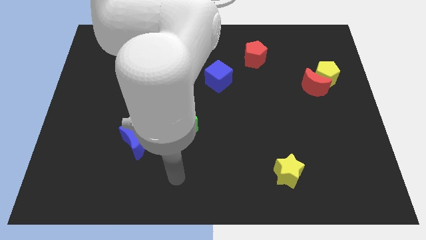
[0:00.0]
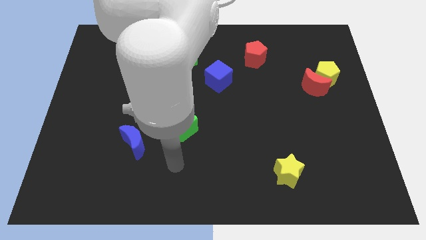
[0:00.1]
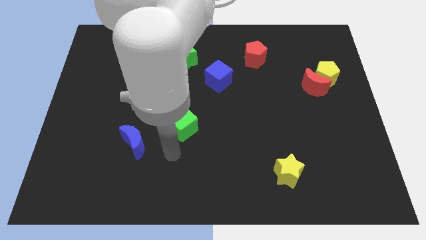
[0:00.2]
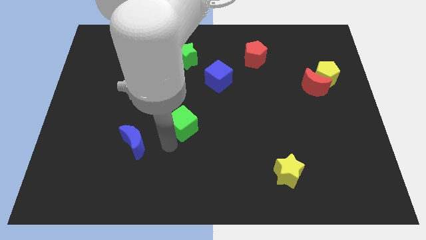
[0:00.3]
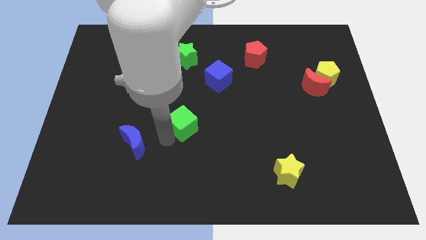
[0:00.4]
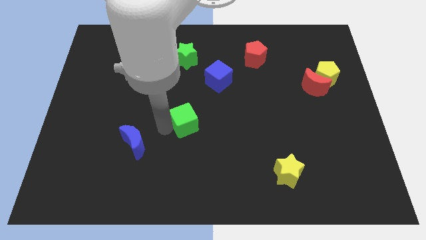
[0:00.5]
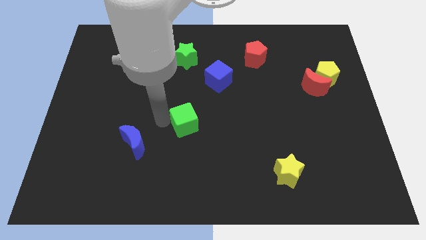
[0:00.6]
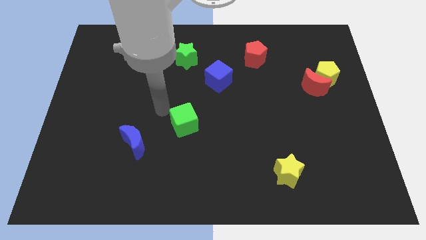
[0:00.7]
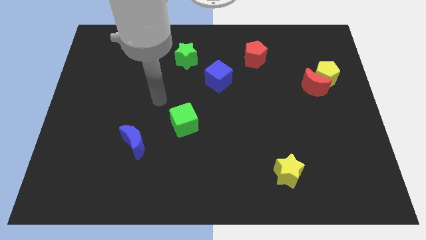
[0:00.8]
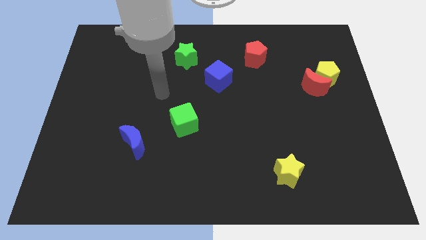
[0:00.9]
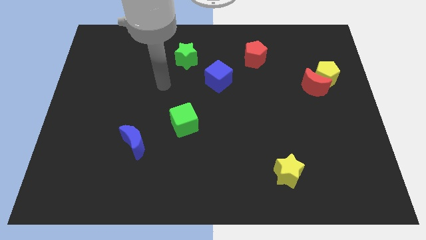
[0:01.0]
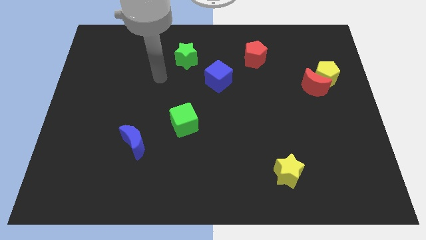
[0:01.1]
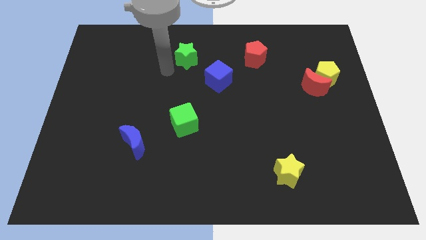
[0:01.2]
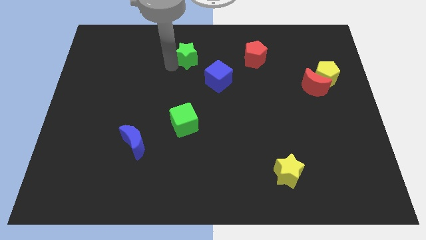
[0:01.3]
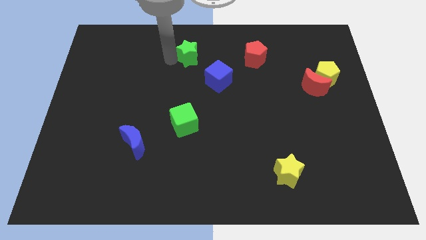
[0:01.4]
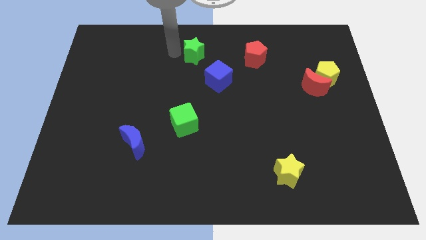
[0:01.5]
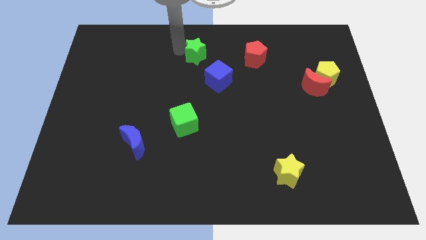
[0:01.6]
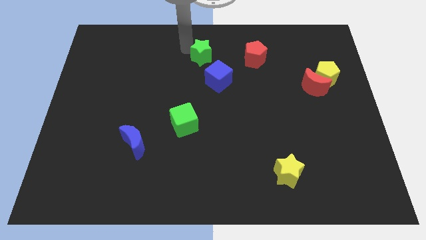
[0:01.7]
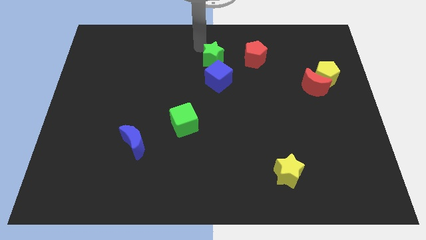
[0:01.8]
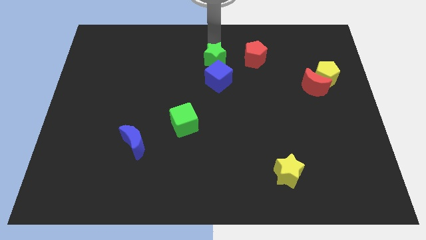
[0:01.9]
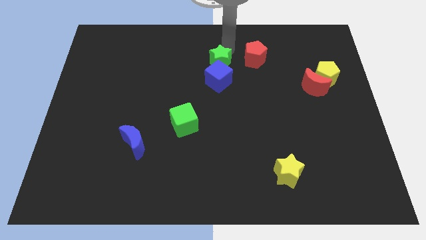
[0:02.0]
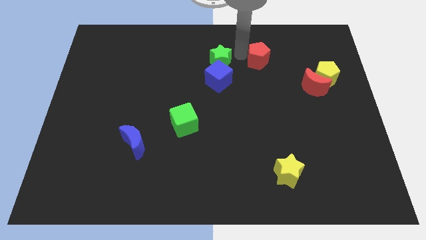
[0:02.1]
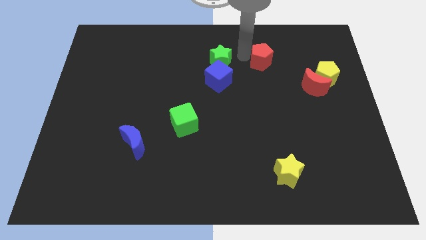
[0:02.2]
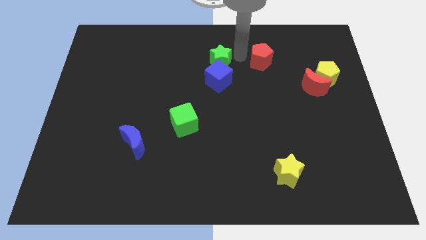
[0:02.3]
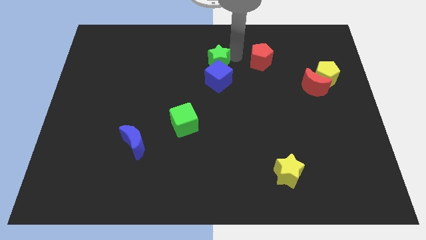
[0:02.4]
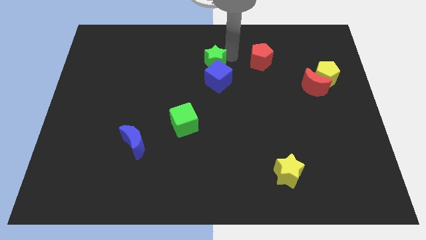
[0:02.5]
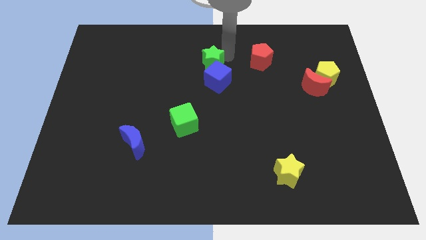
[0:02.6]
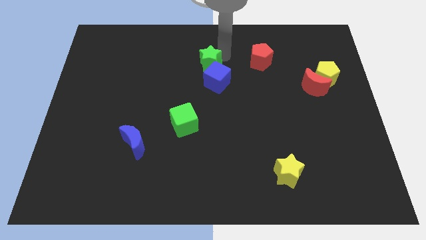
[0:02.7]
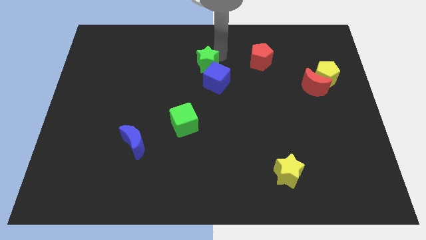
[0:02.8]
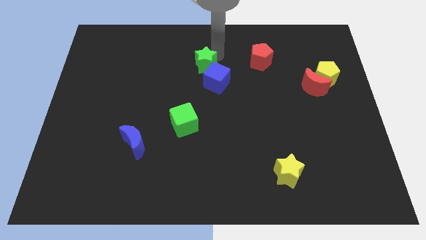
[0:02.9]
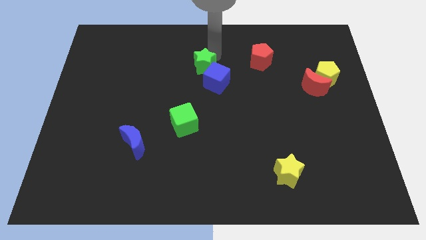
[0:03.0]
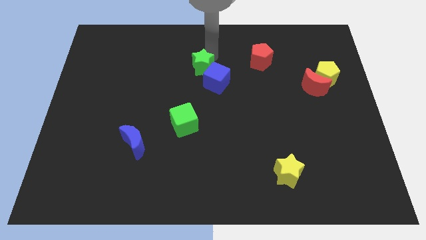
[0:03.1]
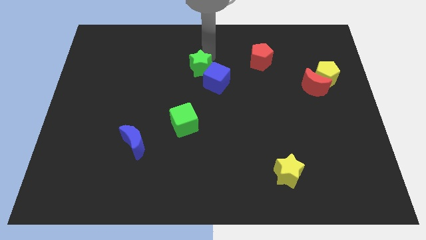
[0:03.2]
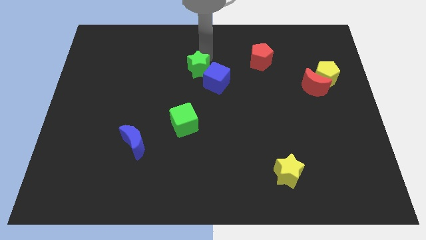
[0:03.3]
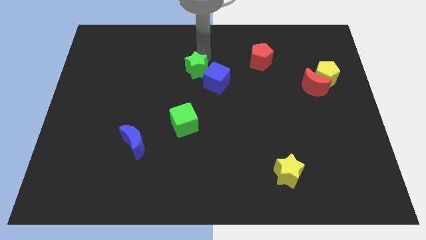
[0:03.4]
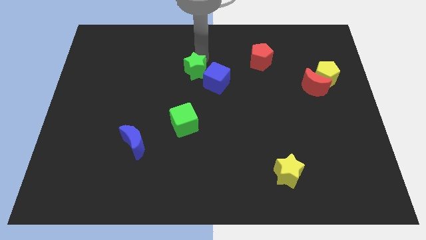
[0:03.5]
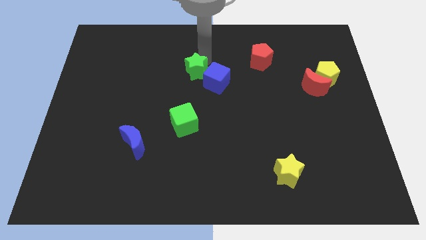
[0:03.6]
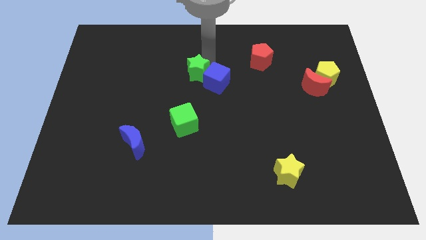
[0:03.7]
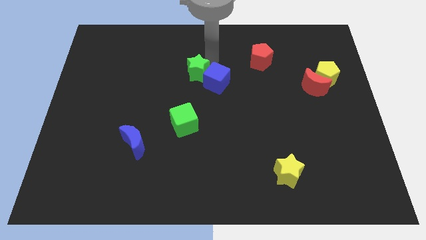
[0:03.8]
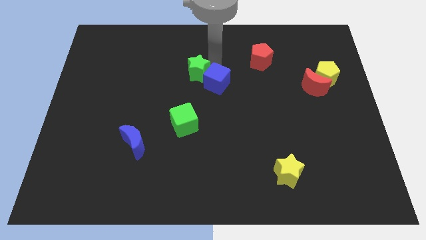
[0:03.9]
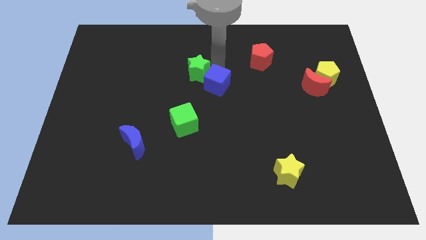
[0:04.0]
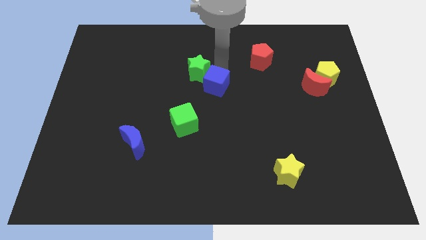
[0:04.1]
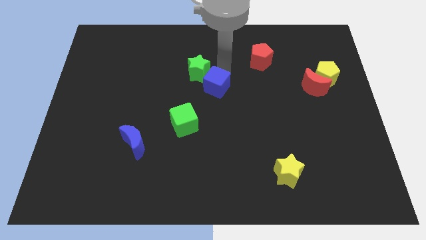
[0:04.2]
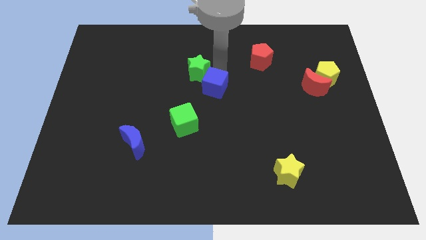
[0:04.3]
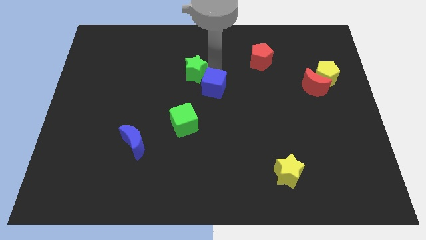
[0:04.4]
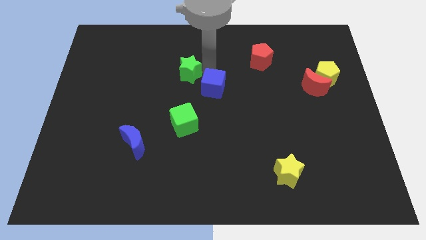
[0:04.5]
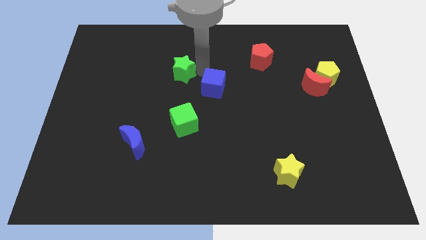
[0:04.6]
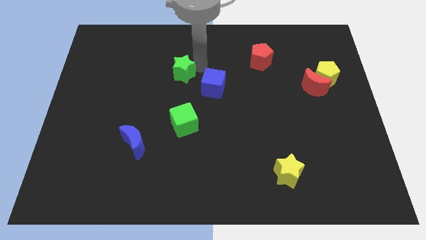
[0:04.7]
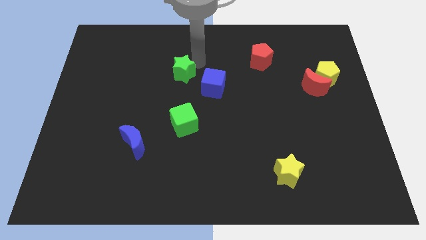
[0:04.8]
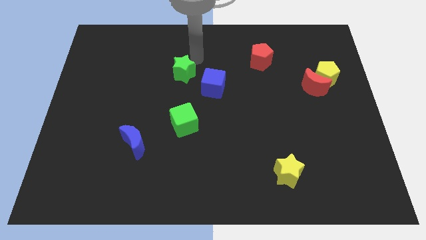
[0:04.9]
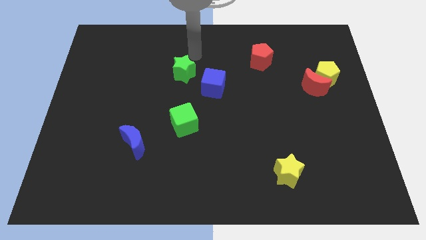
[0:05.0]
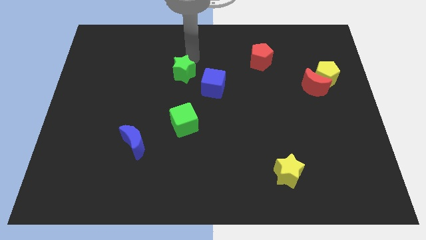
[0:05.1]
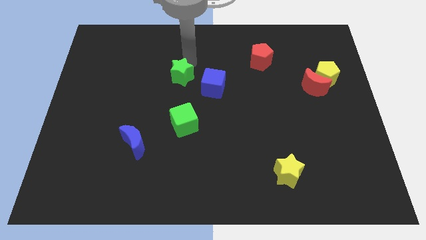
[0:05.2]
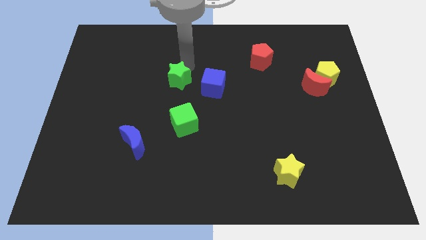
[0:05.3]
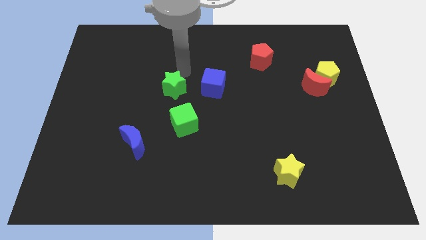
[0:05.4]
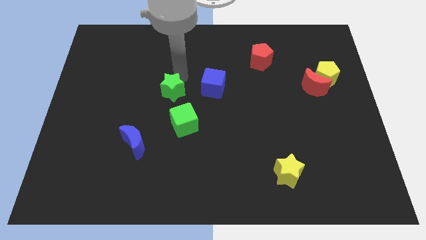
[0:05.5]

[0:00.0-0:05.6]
push the green star diagonally up and to the left of the green cube

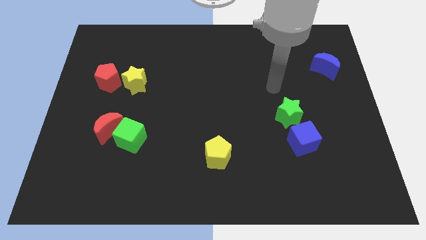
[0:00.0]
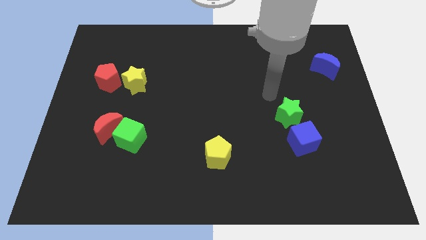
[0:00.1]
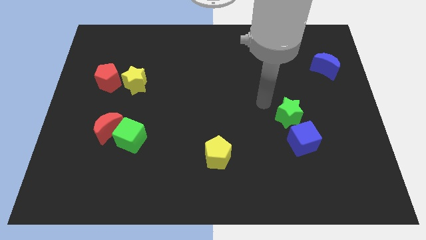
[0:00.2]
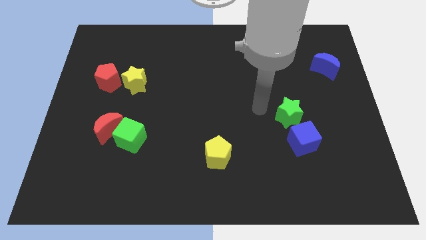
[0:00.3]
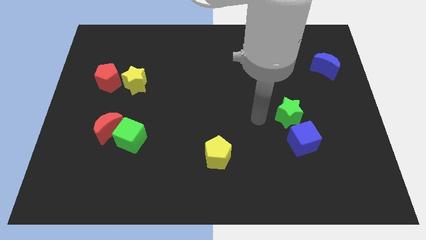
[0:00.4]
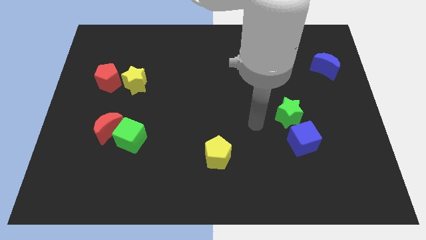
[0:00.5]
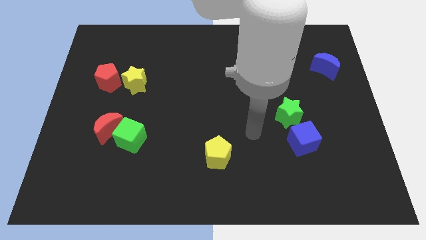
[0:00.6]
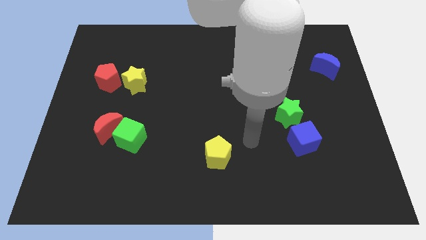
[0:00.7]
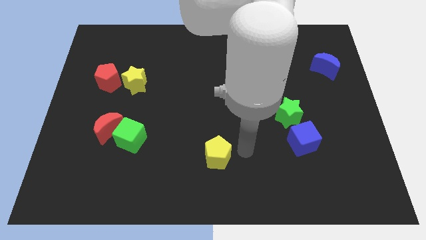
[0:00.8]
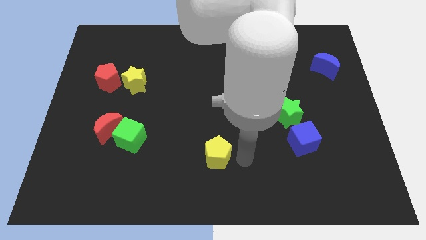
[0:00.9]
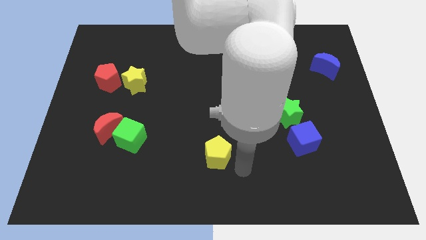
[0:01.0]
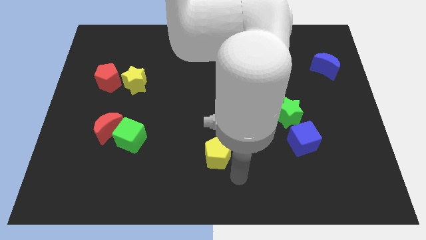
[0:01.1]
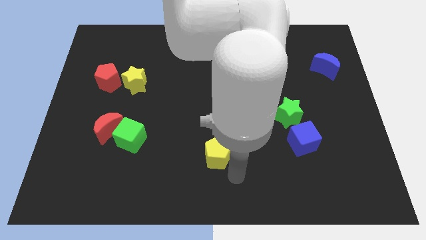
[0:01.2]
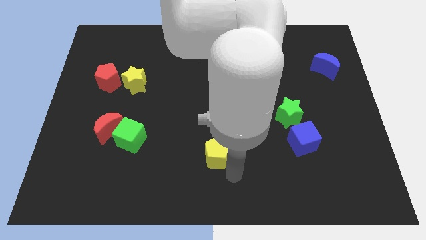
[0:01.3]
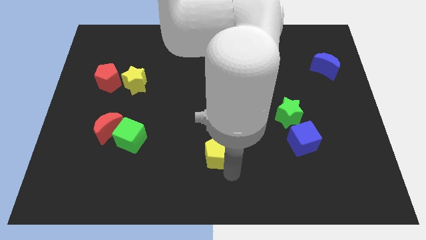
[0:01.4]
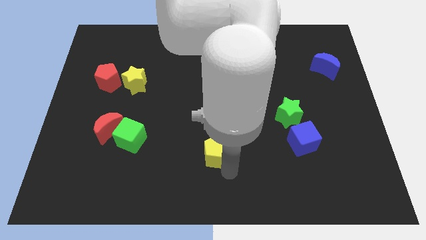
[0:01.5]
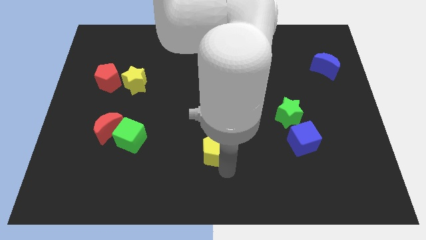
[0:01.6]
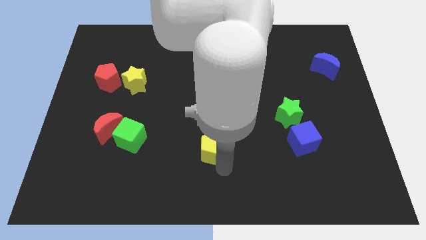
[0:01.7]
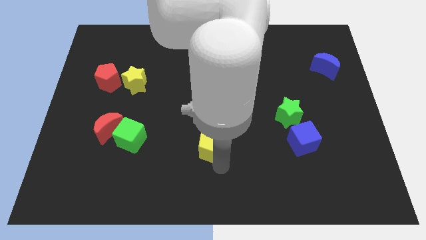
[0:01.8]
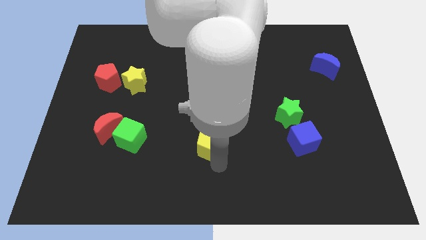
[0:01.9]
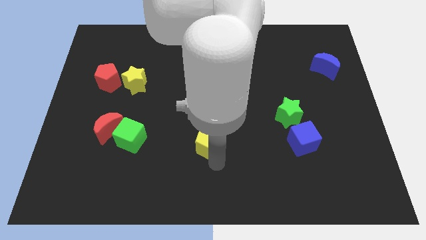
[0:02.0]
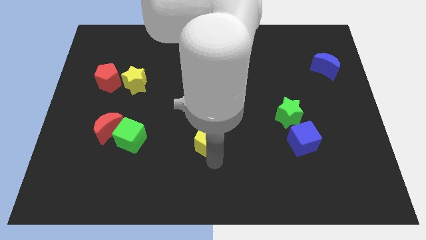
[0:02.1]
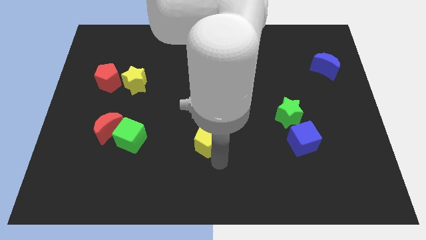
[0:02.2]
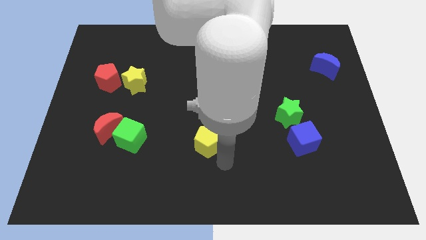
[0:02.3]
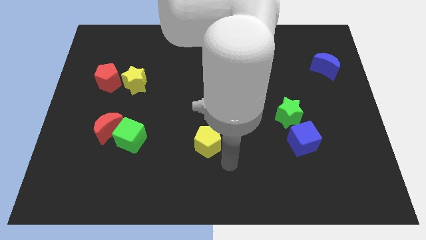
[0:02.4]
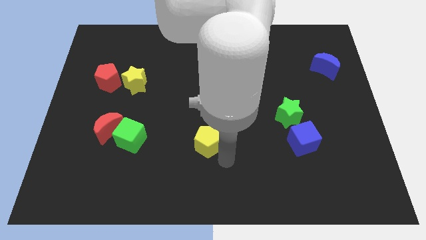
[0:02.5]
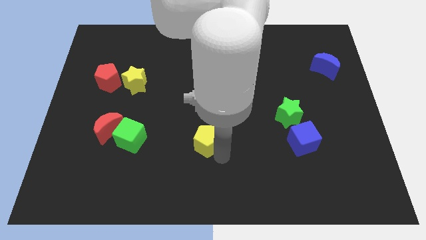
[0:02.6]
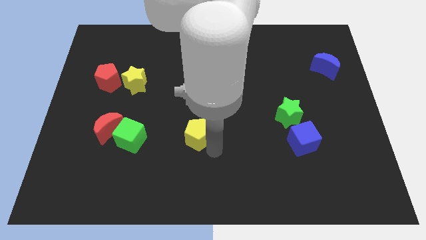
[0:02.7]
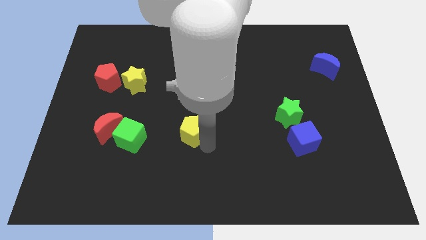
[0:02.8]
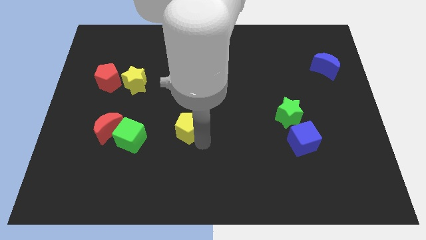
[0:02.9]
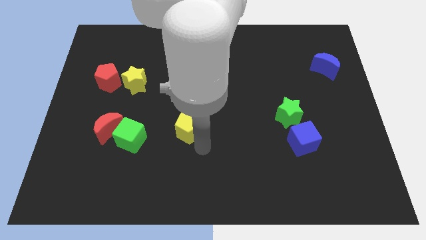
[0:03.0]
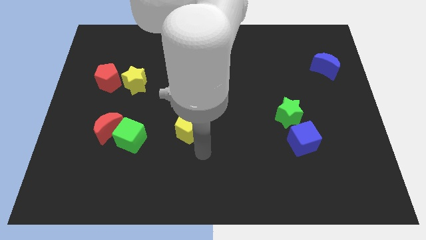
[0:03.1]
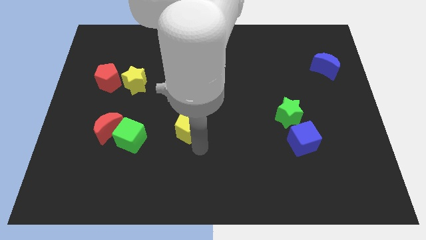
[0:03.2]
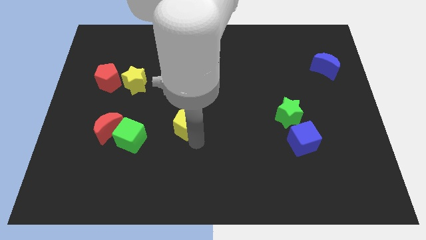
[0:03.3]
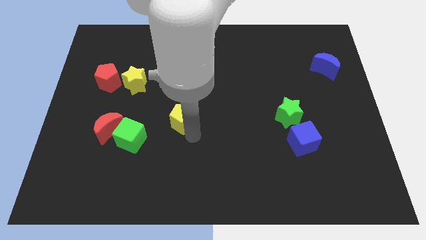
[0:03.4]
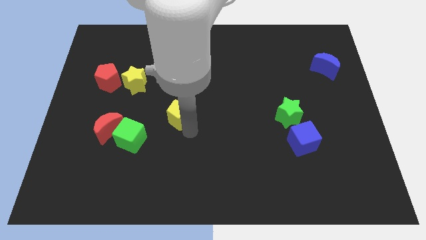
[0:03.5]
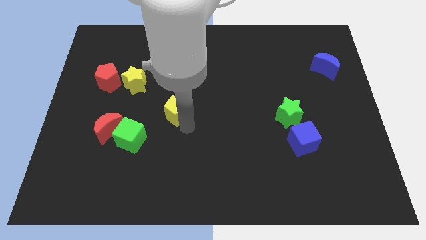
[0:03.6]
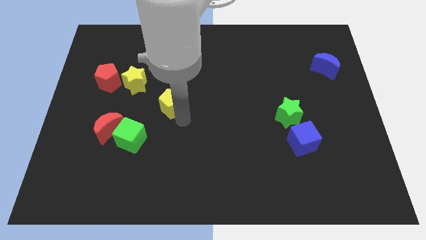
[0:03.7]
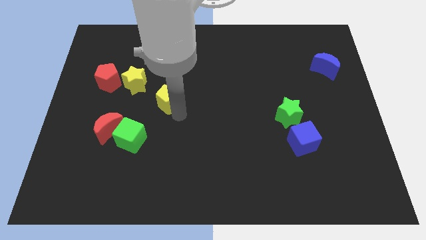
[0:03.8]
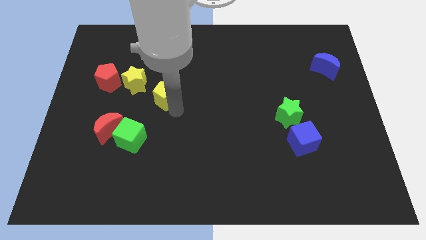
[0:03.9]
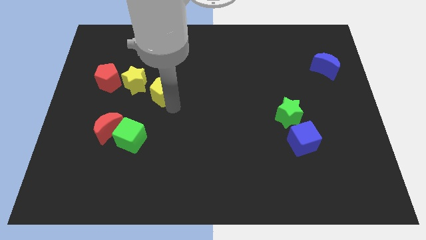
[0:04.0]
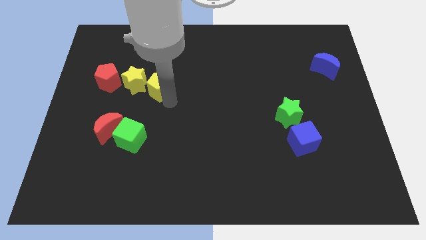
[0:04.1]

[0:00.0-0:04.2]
put the yellow pentagon just right of the red pentagon
